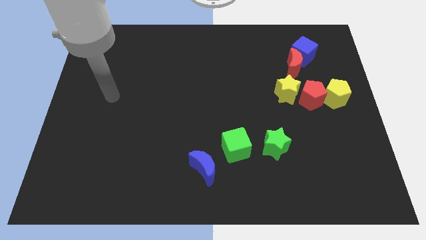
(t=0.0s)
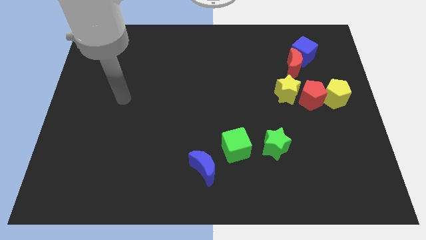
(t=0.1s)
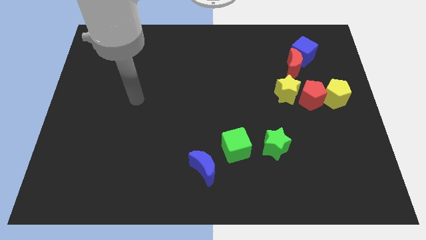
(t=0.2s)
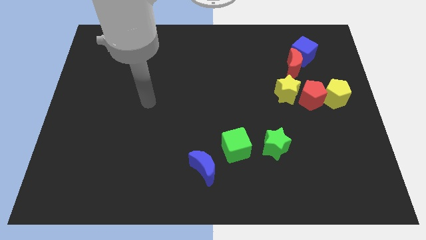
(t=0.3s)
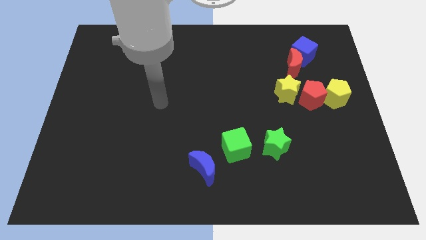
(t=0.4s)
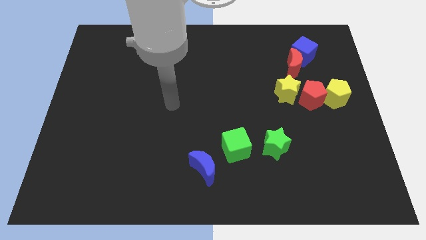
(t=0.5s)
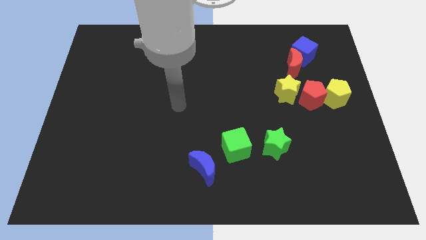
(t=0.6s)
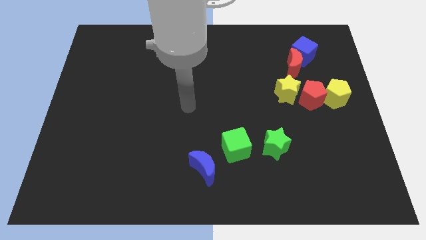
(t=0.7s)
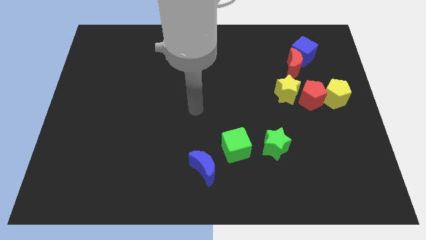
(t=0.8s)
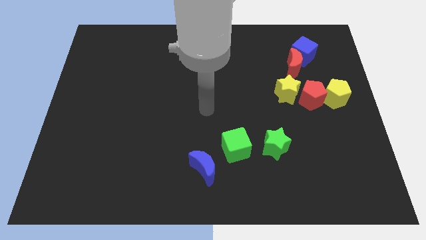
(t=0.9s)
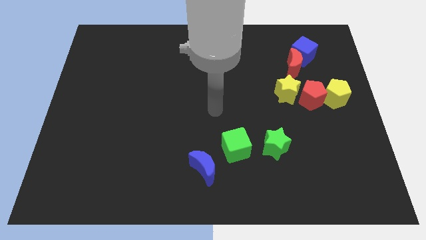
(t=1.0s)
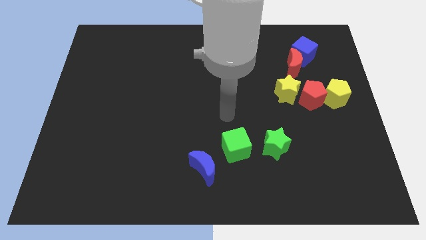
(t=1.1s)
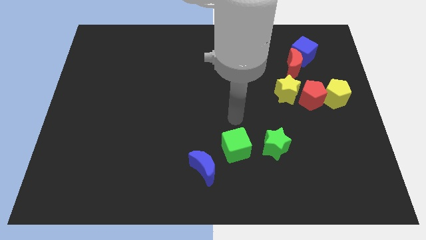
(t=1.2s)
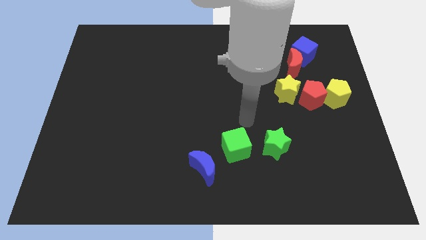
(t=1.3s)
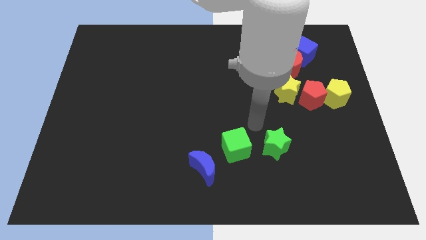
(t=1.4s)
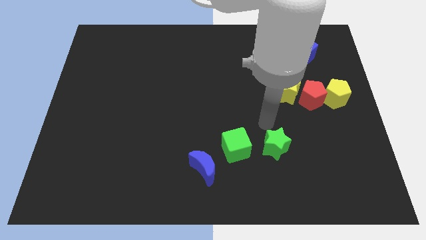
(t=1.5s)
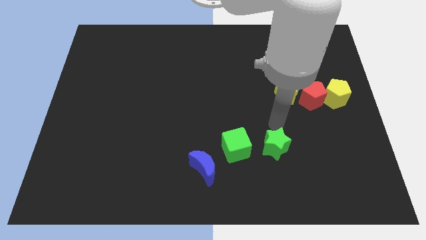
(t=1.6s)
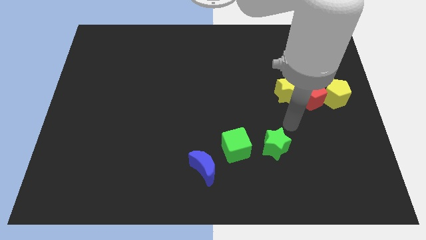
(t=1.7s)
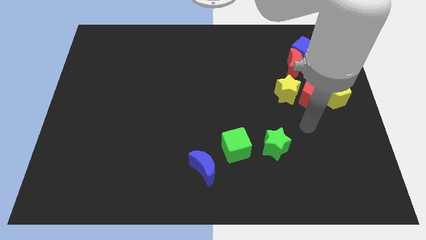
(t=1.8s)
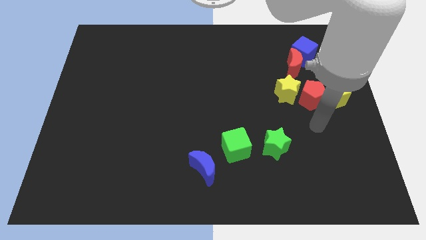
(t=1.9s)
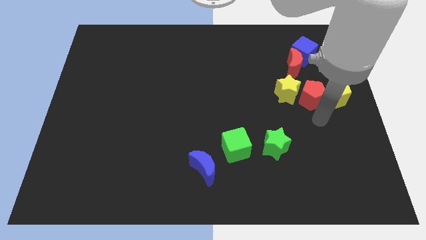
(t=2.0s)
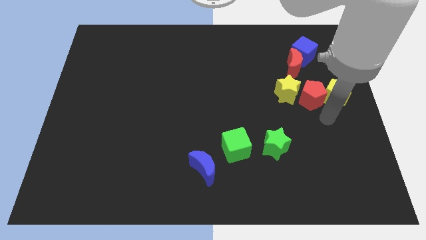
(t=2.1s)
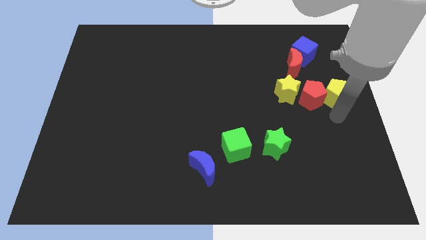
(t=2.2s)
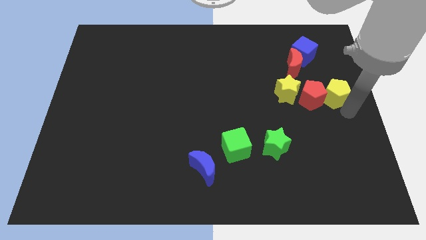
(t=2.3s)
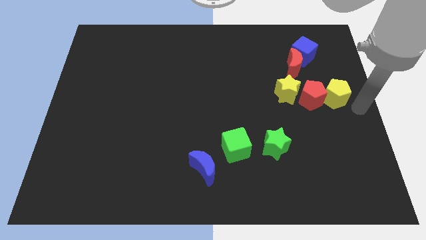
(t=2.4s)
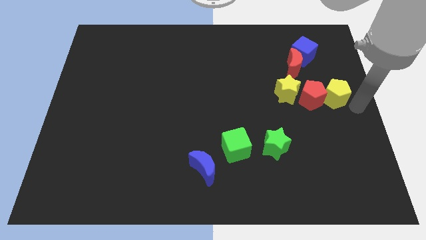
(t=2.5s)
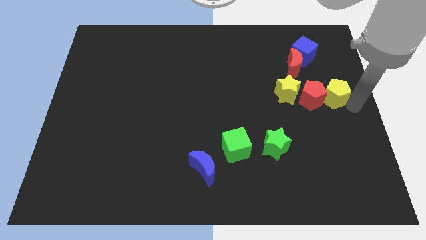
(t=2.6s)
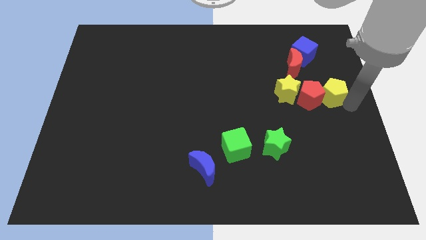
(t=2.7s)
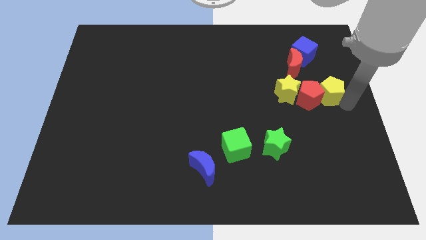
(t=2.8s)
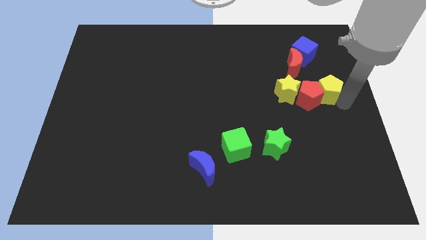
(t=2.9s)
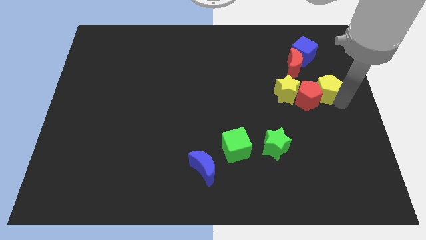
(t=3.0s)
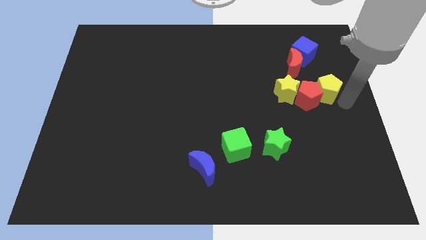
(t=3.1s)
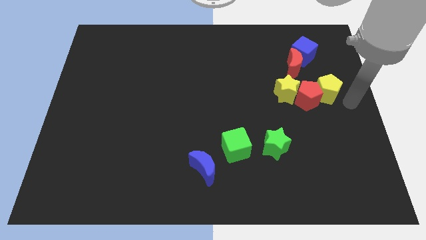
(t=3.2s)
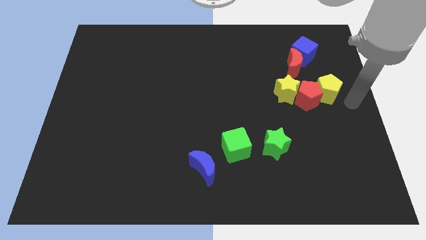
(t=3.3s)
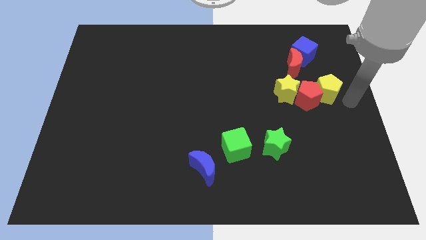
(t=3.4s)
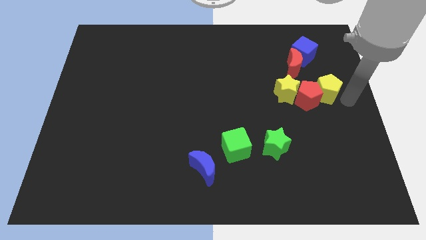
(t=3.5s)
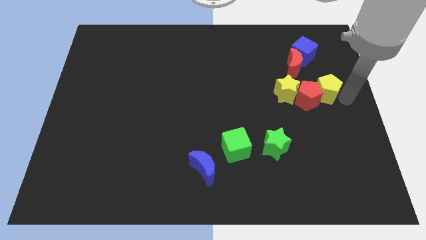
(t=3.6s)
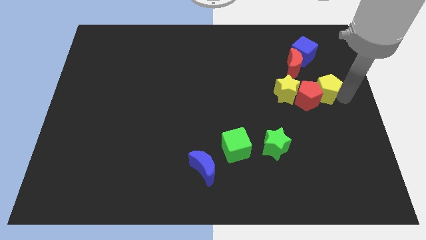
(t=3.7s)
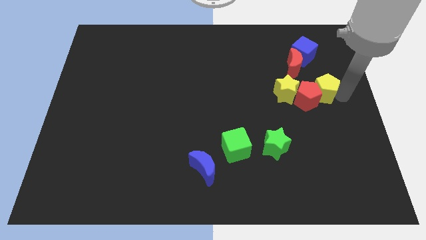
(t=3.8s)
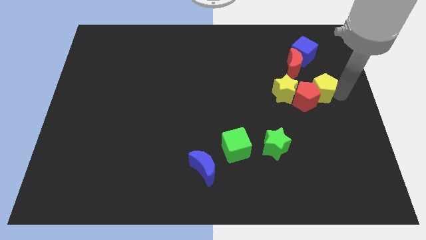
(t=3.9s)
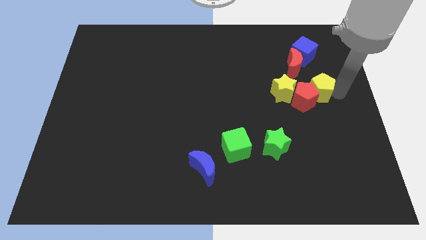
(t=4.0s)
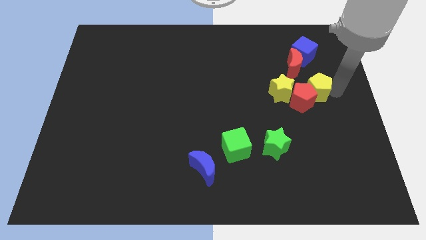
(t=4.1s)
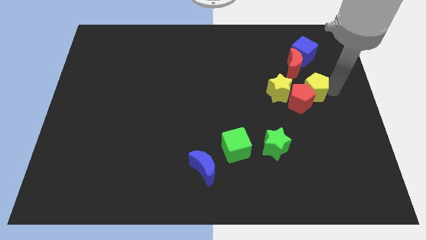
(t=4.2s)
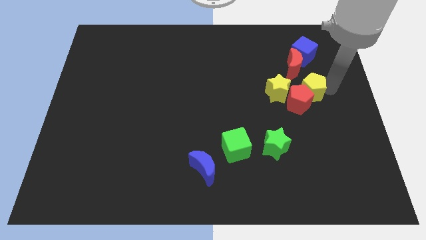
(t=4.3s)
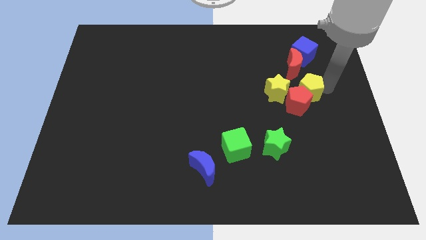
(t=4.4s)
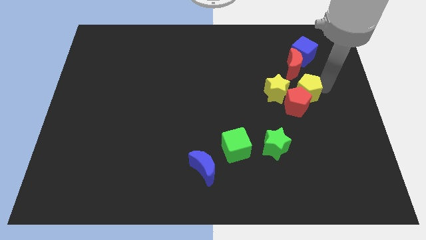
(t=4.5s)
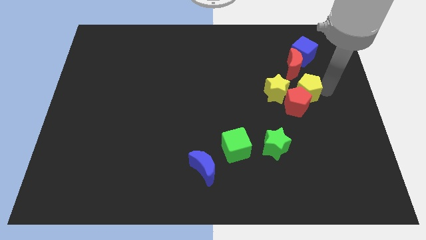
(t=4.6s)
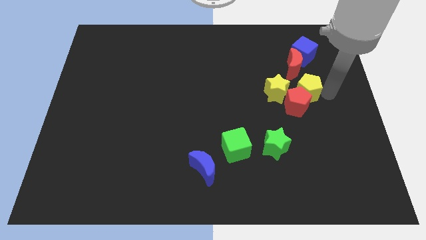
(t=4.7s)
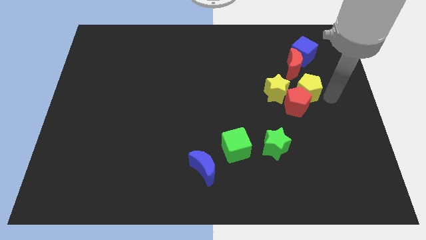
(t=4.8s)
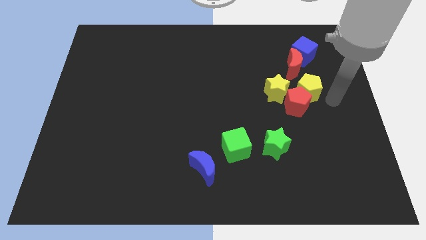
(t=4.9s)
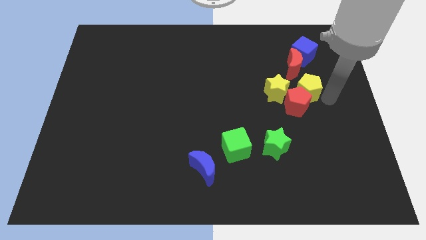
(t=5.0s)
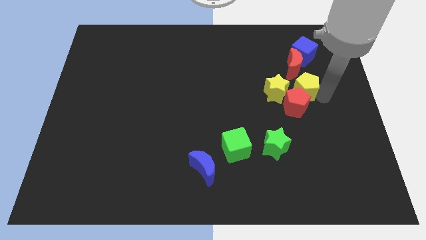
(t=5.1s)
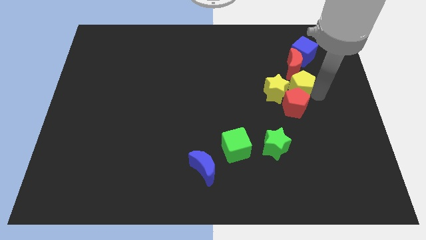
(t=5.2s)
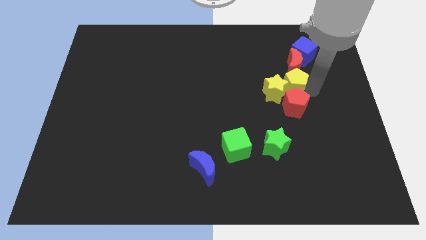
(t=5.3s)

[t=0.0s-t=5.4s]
push the yellow pentagon towards the yellow star

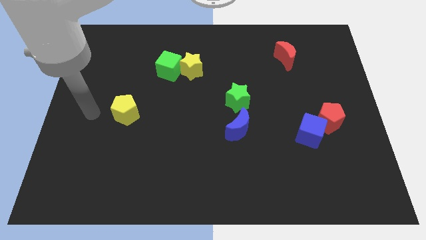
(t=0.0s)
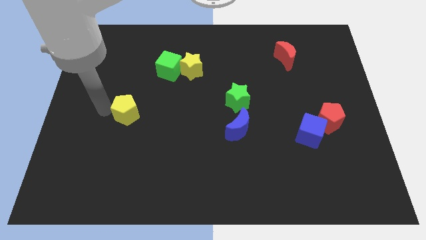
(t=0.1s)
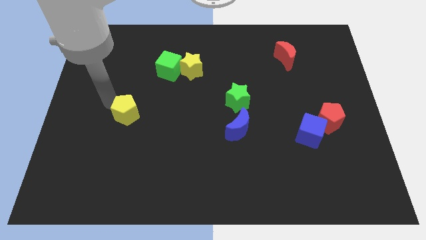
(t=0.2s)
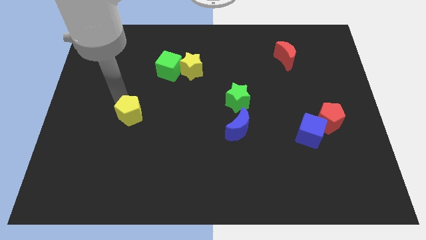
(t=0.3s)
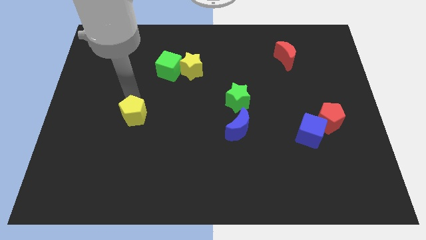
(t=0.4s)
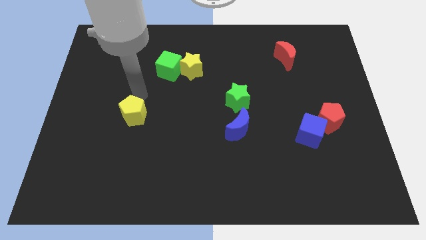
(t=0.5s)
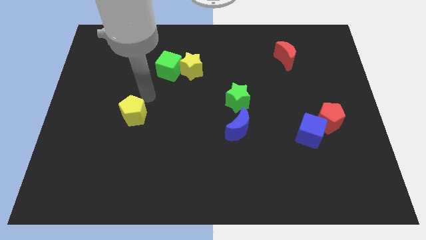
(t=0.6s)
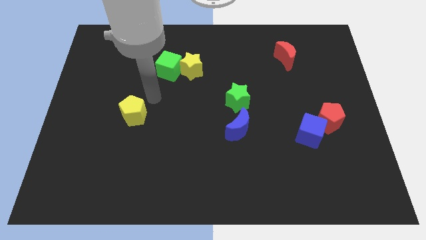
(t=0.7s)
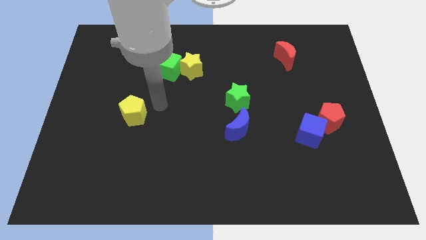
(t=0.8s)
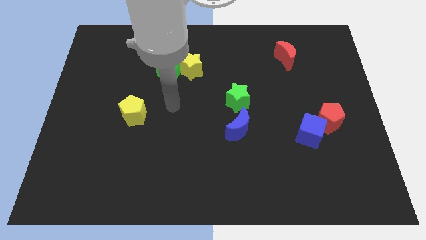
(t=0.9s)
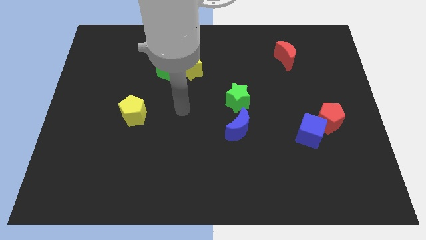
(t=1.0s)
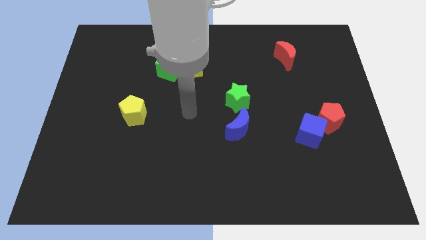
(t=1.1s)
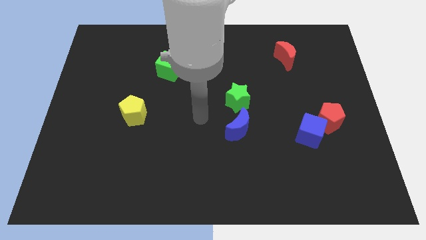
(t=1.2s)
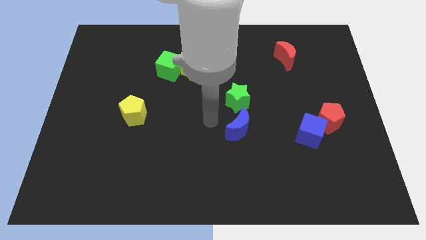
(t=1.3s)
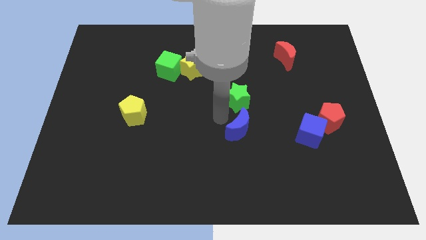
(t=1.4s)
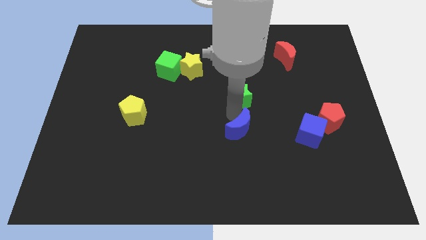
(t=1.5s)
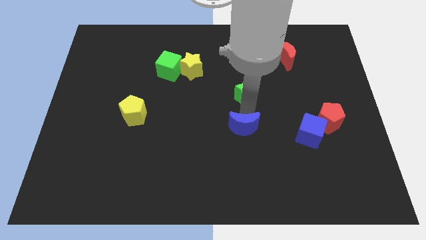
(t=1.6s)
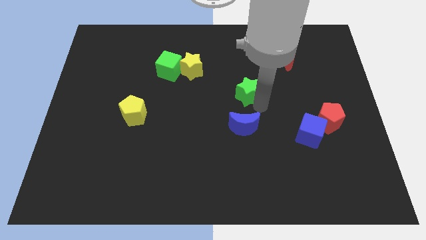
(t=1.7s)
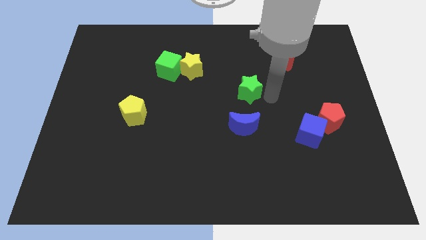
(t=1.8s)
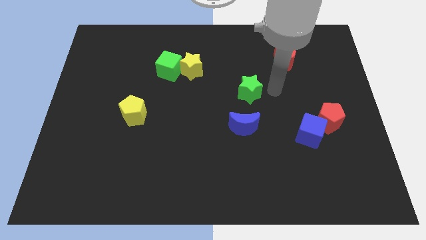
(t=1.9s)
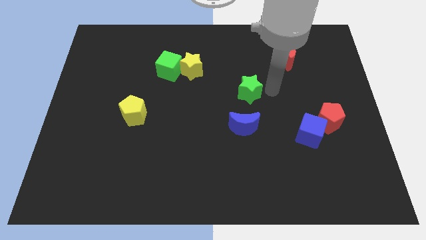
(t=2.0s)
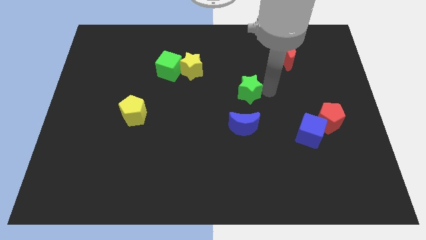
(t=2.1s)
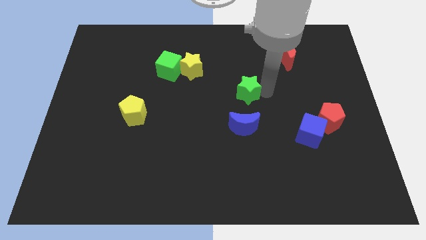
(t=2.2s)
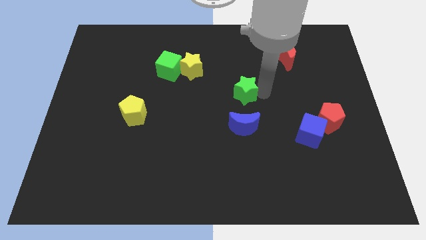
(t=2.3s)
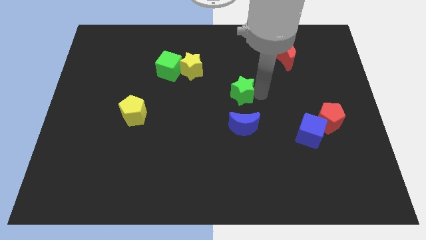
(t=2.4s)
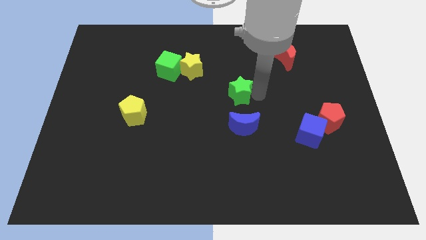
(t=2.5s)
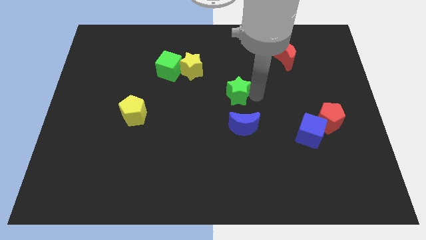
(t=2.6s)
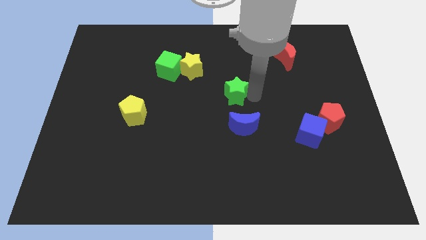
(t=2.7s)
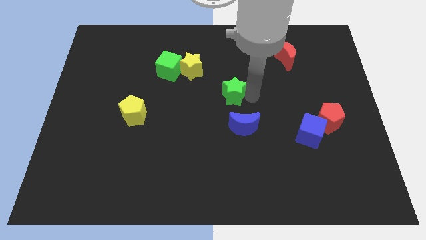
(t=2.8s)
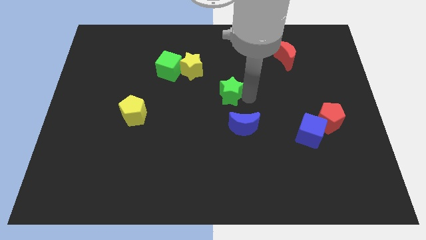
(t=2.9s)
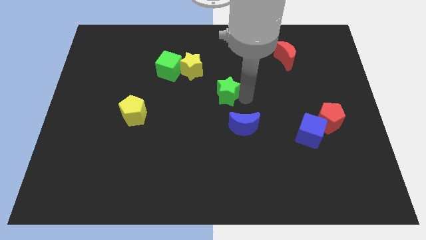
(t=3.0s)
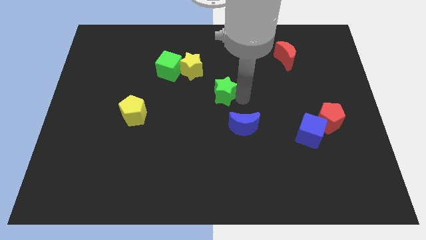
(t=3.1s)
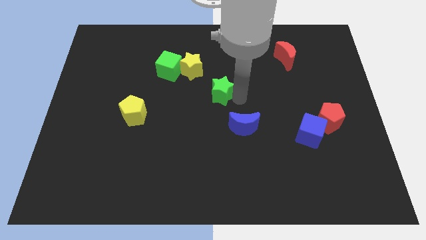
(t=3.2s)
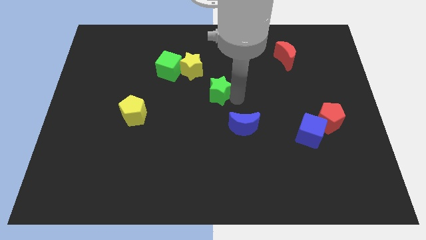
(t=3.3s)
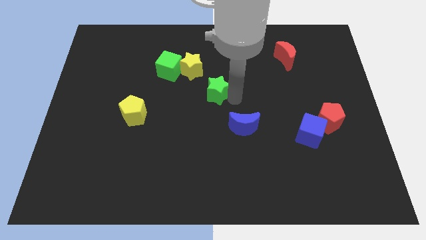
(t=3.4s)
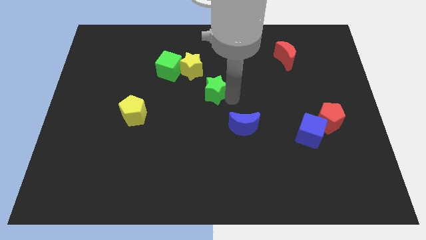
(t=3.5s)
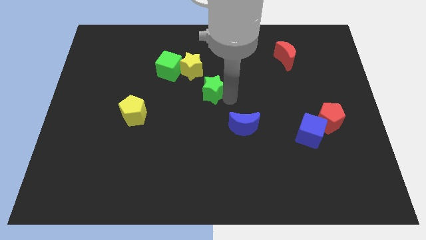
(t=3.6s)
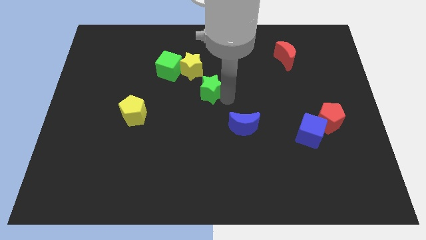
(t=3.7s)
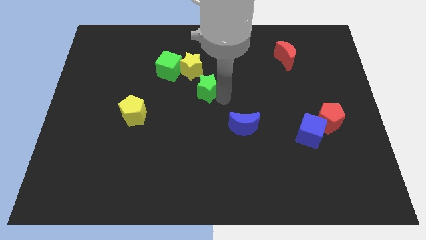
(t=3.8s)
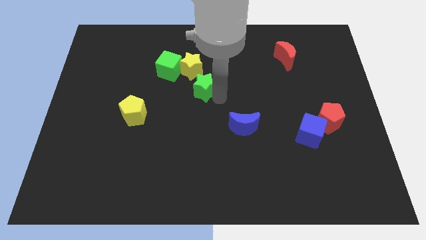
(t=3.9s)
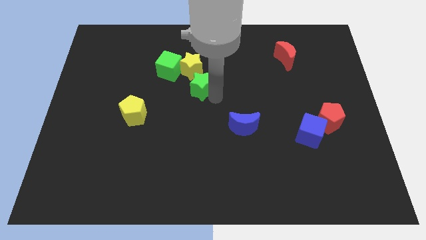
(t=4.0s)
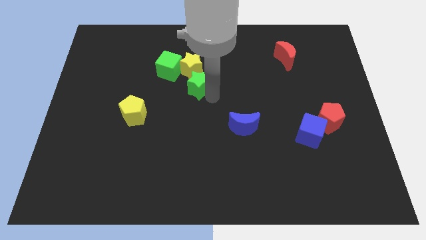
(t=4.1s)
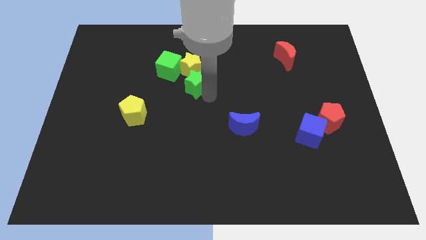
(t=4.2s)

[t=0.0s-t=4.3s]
move the green star to the yellow star
